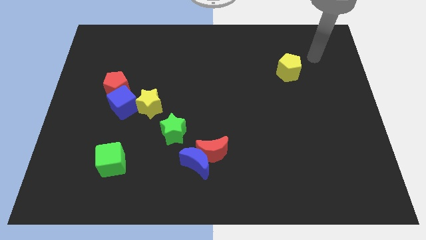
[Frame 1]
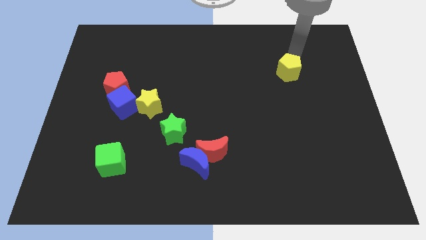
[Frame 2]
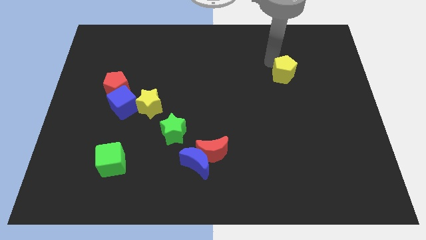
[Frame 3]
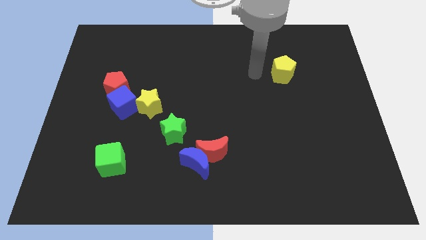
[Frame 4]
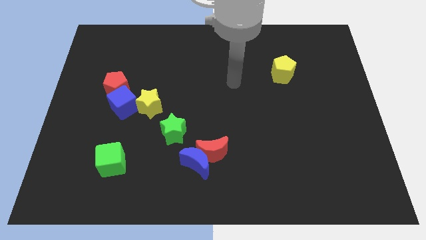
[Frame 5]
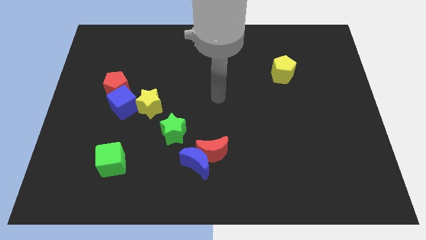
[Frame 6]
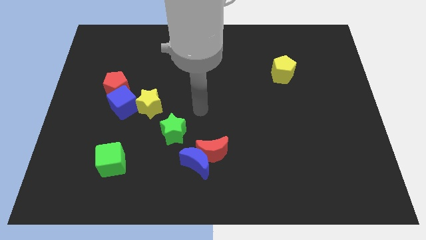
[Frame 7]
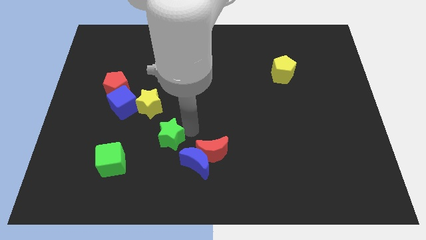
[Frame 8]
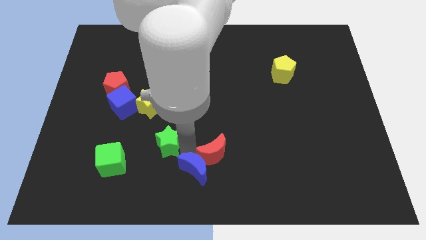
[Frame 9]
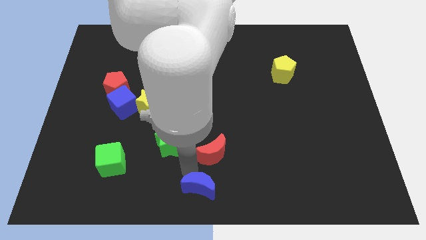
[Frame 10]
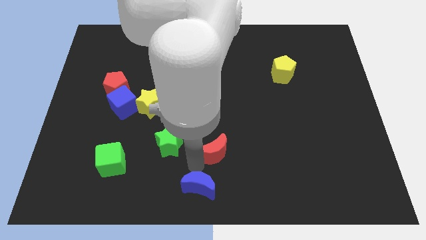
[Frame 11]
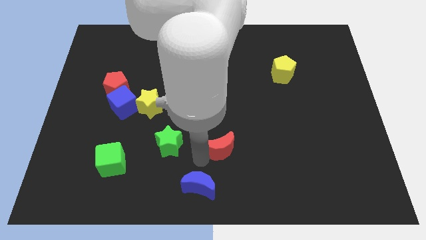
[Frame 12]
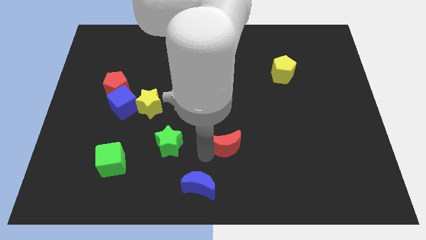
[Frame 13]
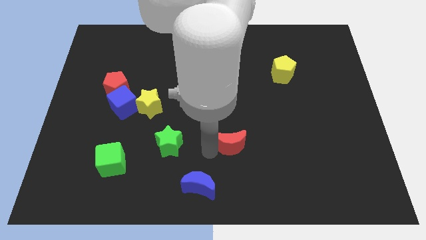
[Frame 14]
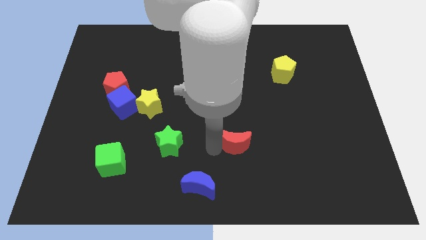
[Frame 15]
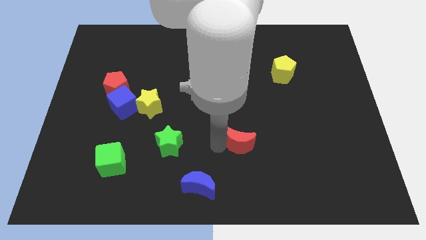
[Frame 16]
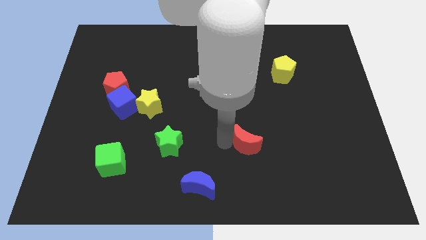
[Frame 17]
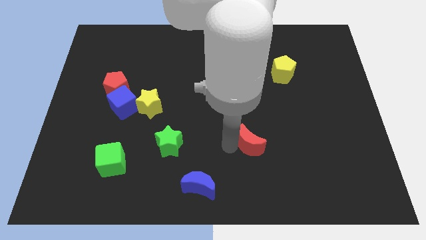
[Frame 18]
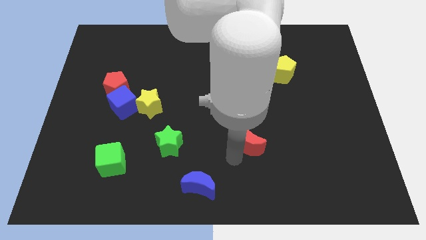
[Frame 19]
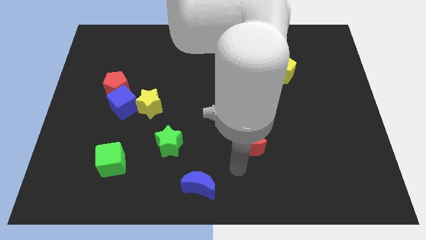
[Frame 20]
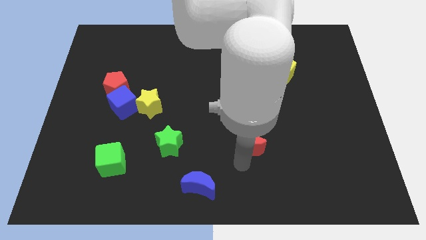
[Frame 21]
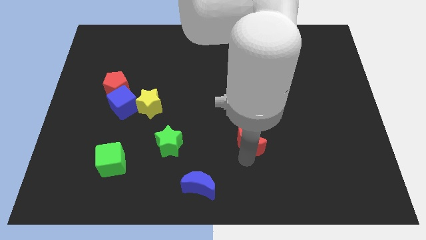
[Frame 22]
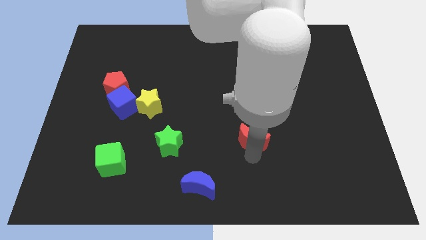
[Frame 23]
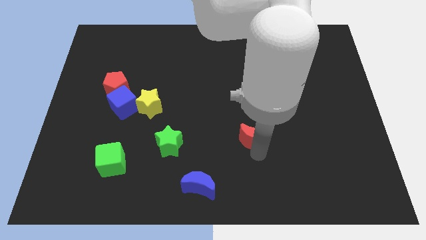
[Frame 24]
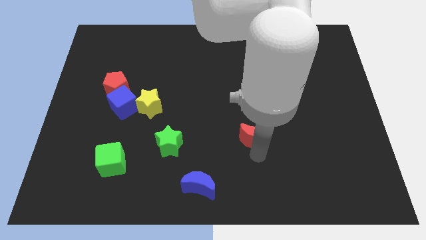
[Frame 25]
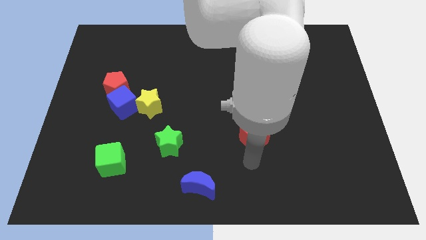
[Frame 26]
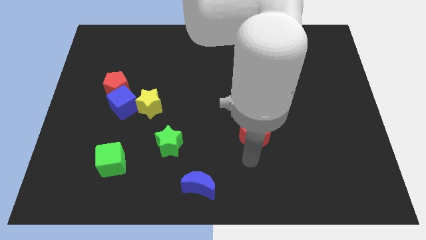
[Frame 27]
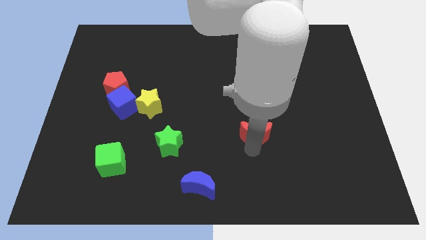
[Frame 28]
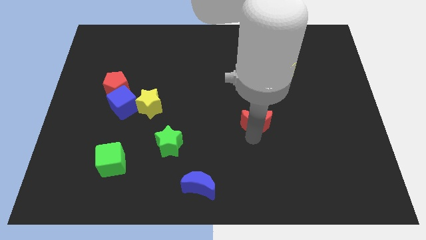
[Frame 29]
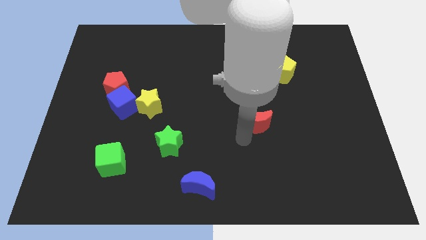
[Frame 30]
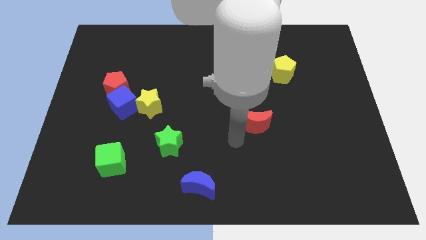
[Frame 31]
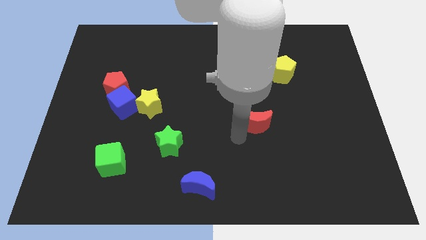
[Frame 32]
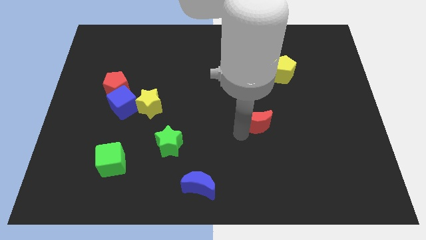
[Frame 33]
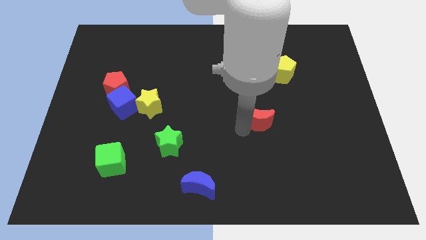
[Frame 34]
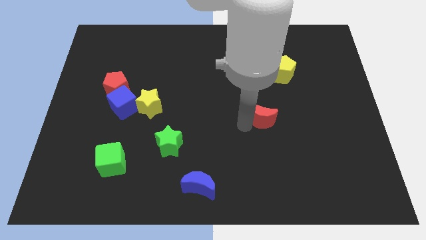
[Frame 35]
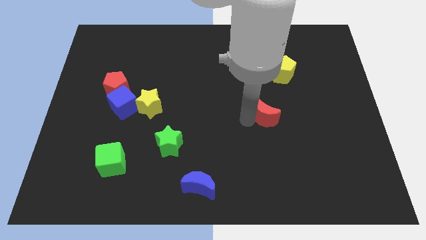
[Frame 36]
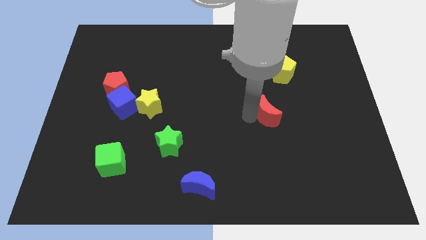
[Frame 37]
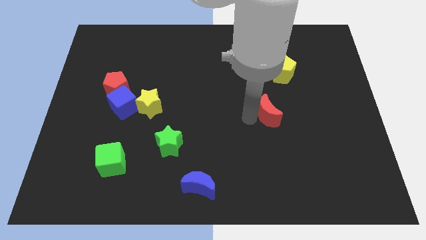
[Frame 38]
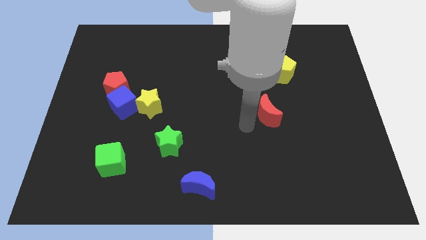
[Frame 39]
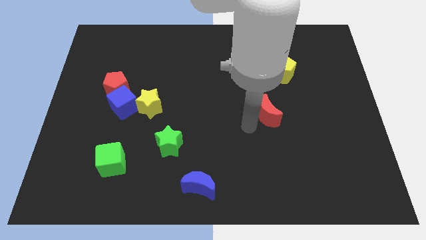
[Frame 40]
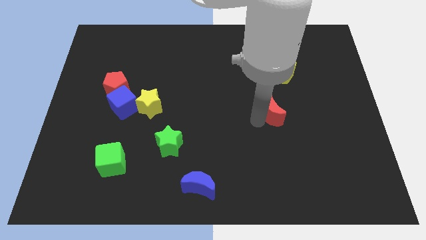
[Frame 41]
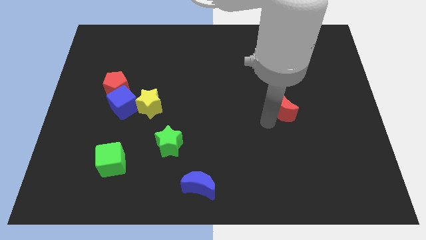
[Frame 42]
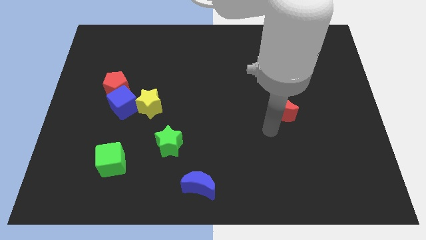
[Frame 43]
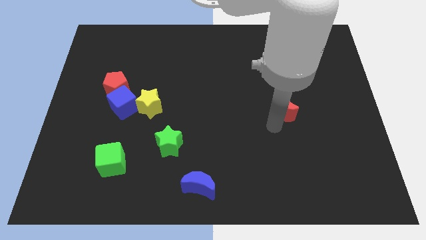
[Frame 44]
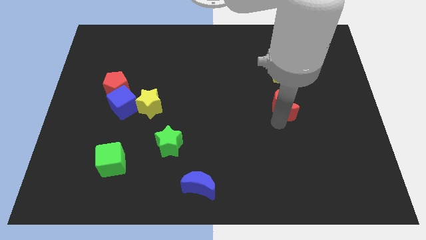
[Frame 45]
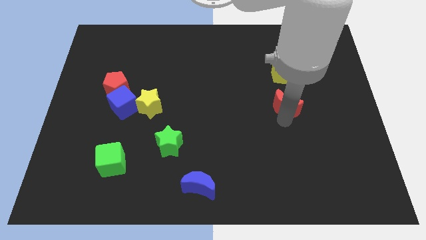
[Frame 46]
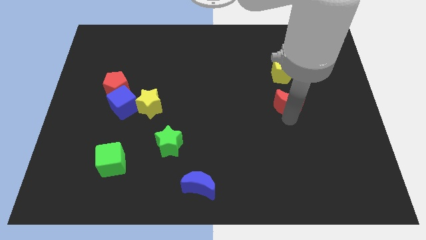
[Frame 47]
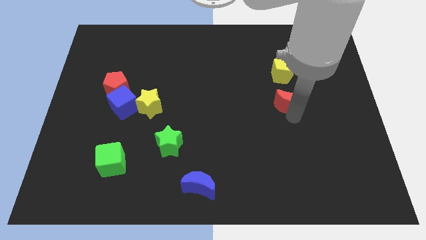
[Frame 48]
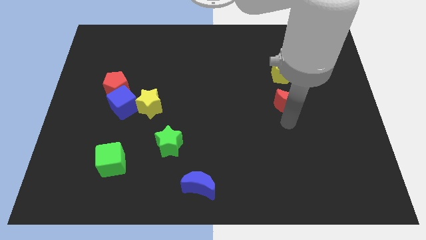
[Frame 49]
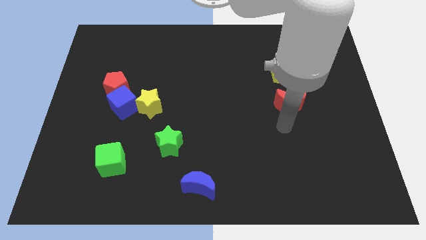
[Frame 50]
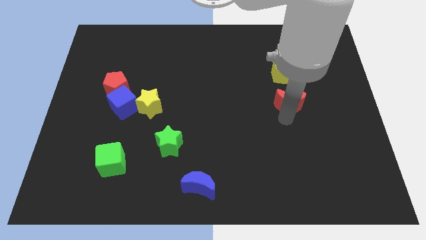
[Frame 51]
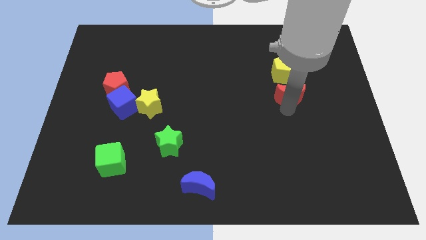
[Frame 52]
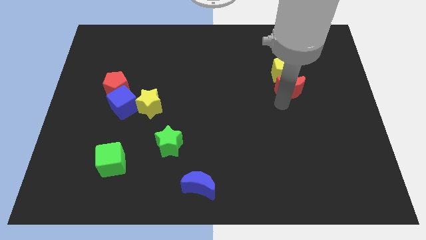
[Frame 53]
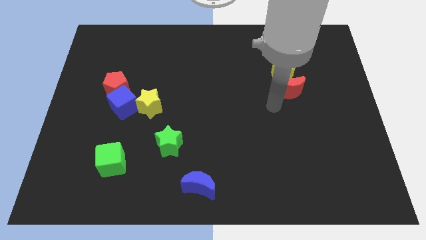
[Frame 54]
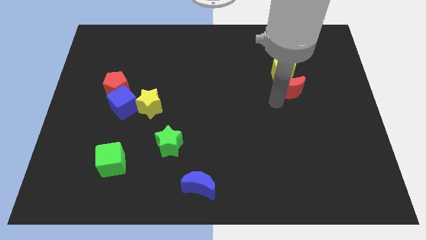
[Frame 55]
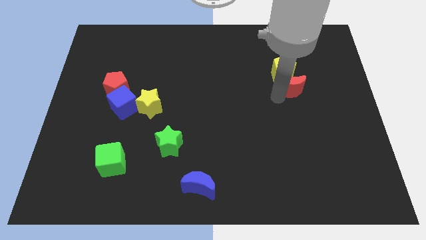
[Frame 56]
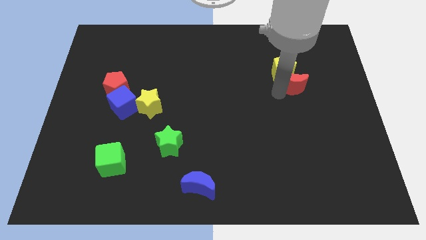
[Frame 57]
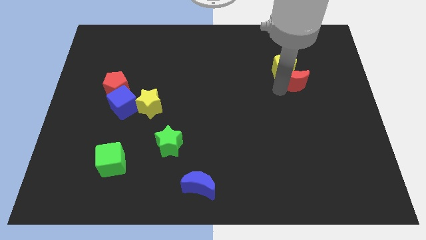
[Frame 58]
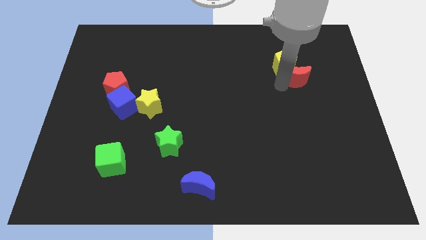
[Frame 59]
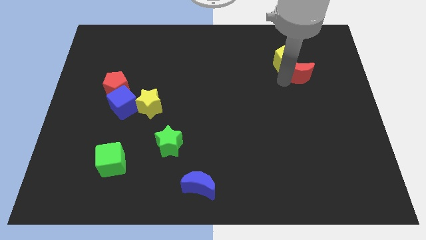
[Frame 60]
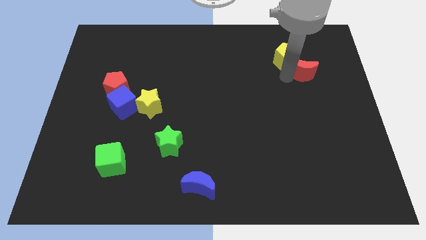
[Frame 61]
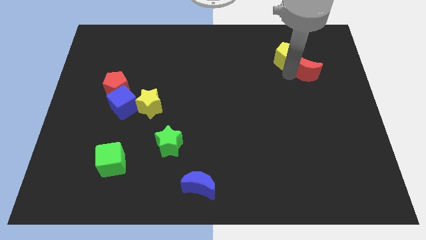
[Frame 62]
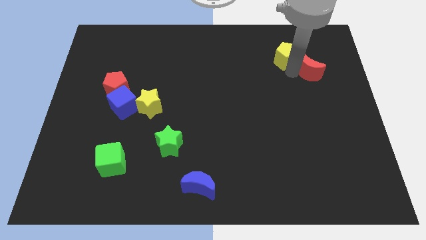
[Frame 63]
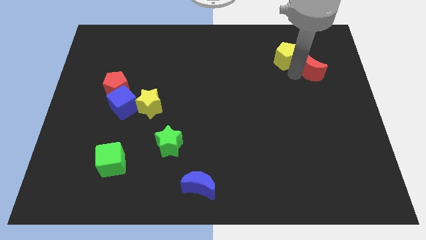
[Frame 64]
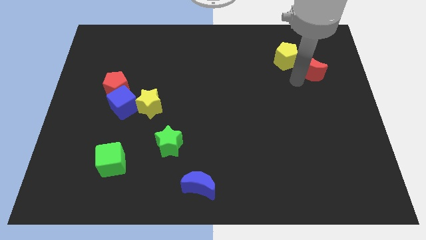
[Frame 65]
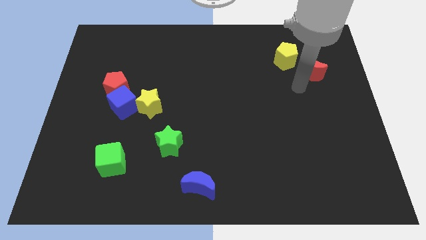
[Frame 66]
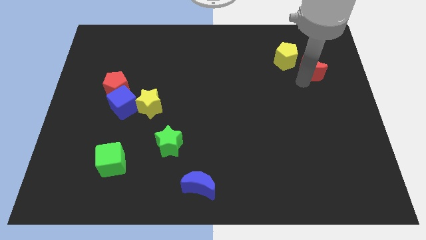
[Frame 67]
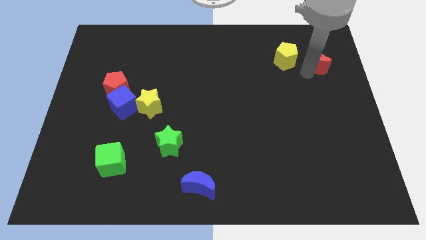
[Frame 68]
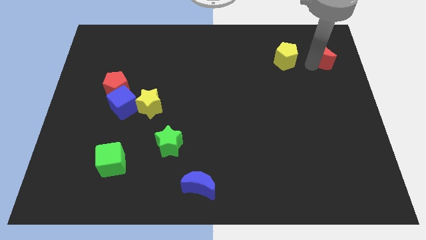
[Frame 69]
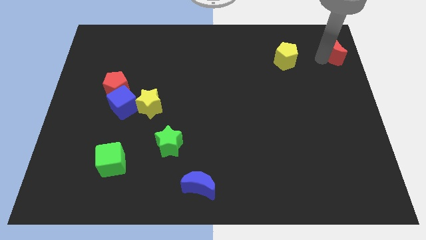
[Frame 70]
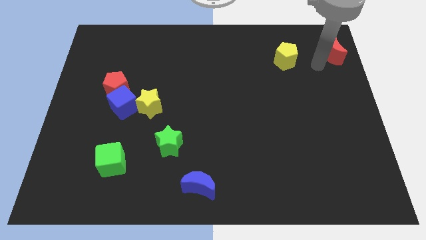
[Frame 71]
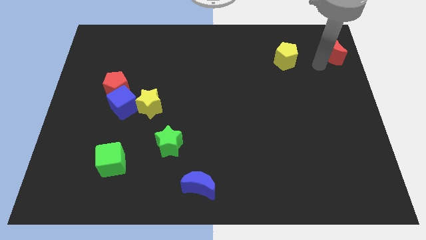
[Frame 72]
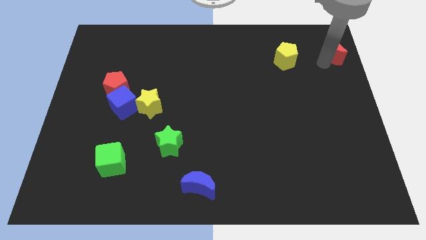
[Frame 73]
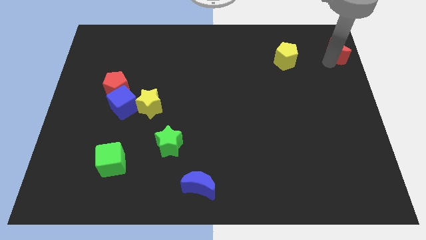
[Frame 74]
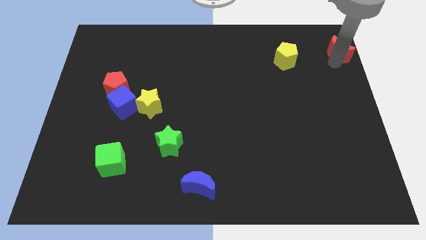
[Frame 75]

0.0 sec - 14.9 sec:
put the red moon to the top right of the board
